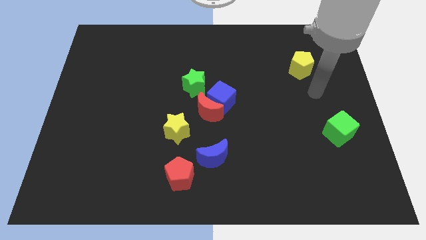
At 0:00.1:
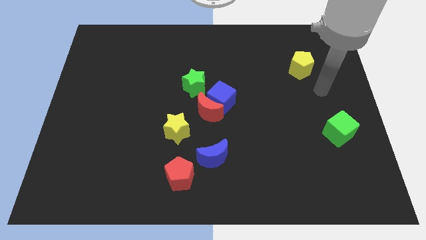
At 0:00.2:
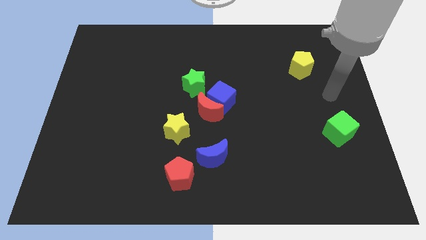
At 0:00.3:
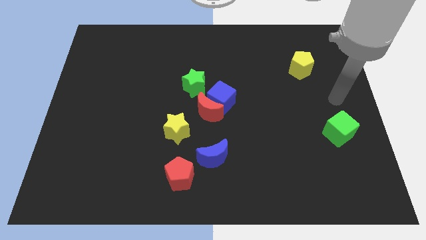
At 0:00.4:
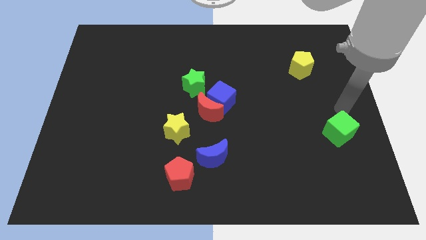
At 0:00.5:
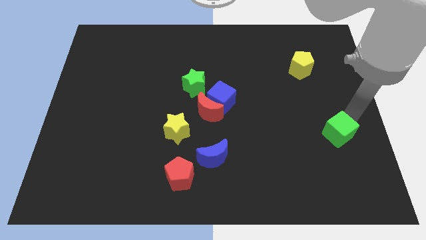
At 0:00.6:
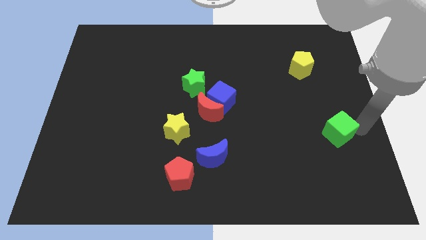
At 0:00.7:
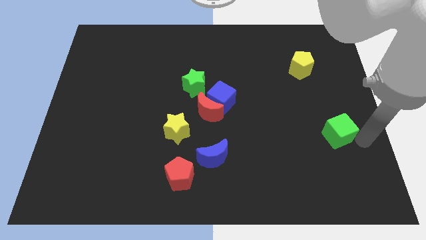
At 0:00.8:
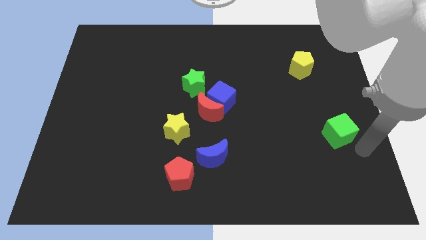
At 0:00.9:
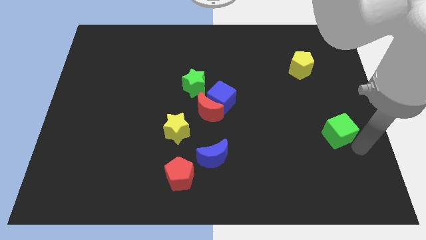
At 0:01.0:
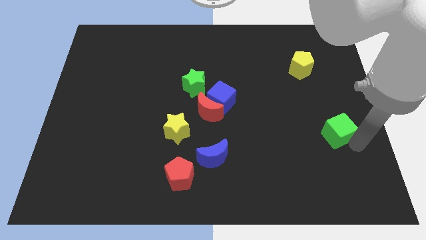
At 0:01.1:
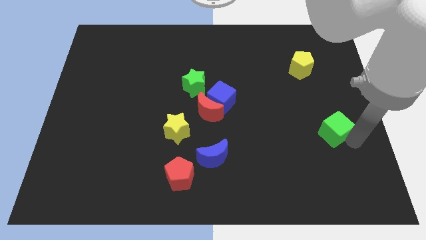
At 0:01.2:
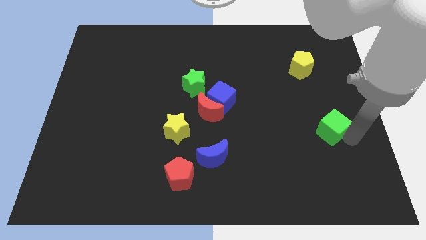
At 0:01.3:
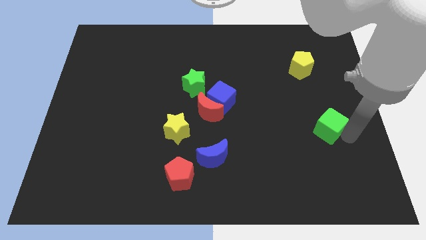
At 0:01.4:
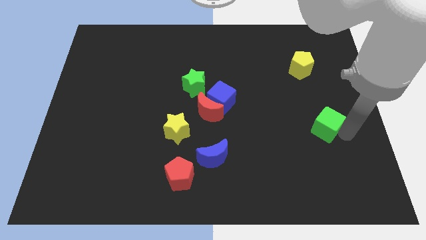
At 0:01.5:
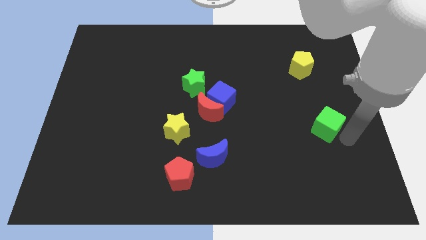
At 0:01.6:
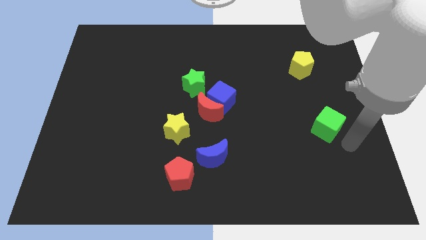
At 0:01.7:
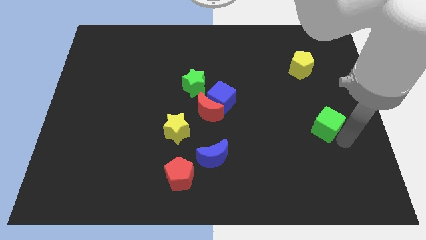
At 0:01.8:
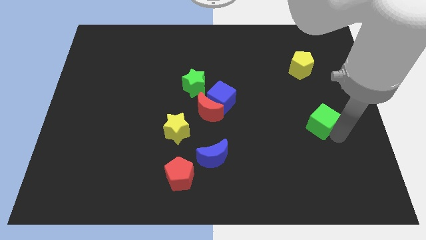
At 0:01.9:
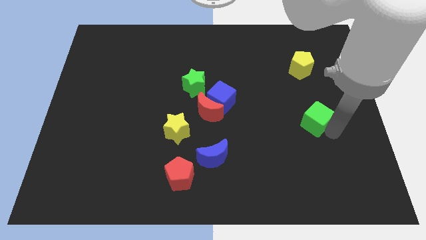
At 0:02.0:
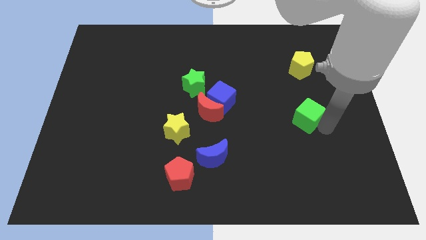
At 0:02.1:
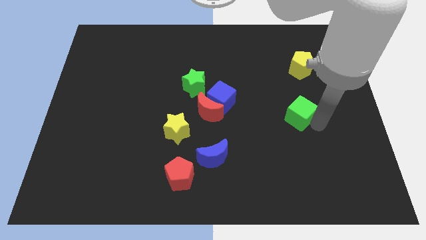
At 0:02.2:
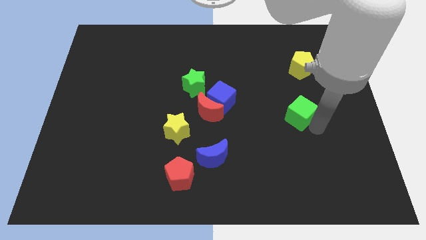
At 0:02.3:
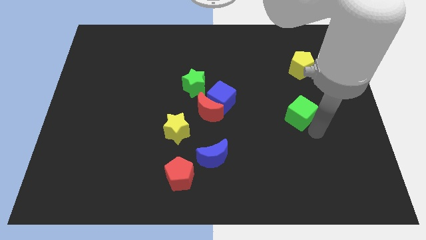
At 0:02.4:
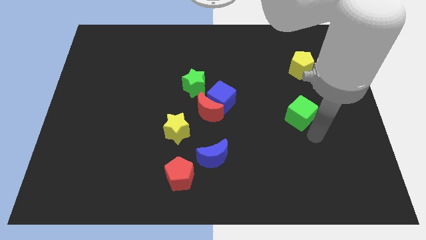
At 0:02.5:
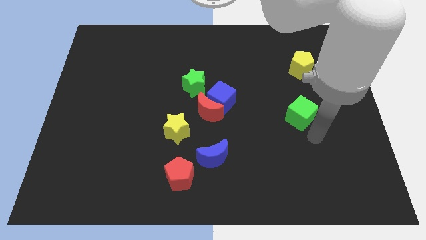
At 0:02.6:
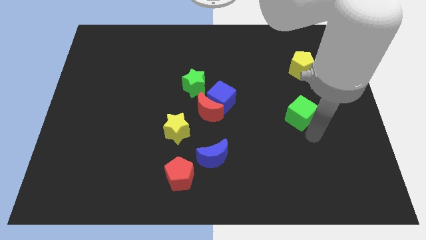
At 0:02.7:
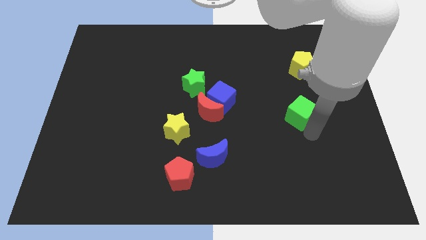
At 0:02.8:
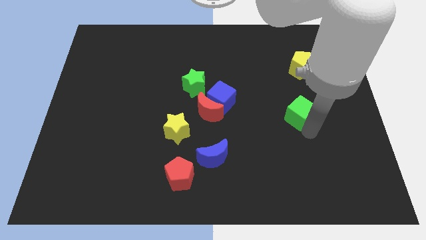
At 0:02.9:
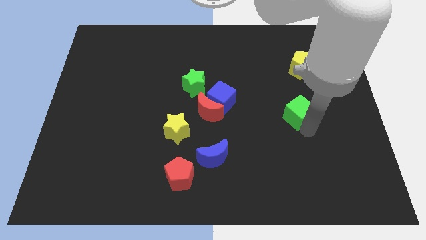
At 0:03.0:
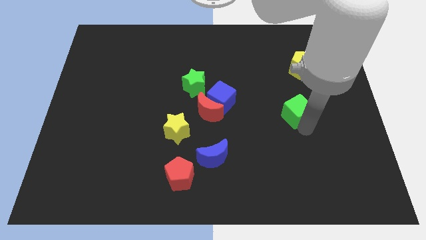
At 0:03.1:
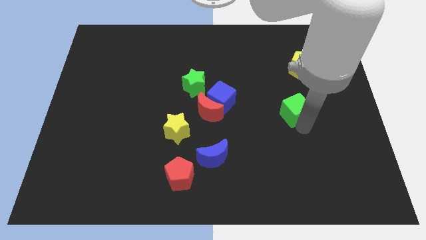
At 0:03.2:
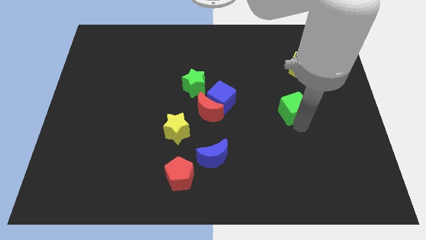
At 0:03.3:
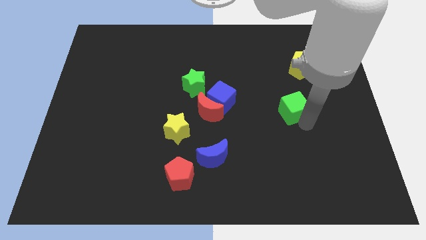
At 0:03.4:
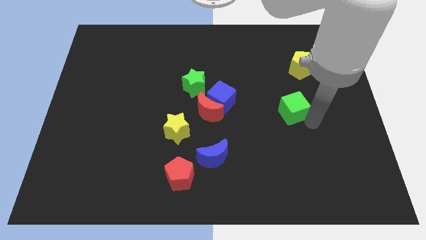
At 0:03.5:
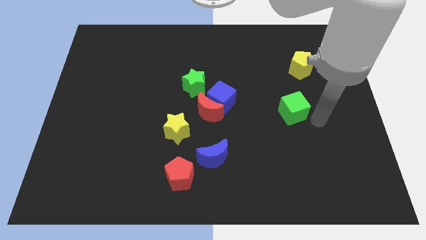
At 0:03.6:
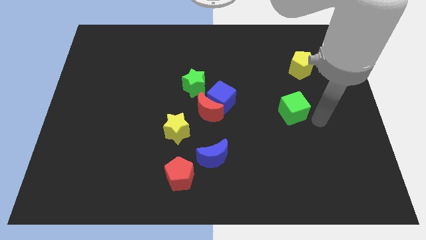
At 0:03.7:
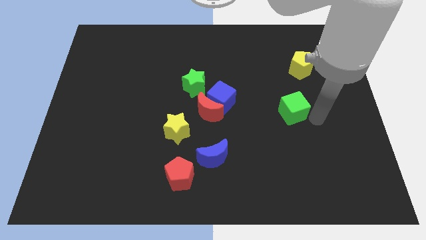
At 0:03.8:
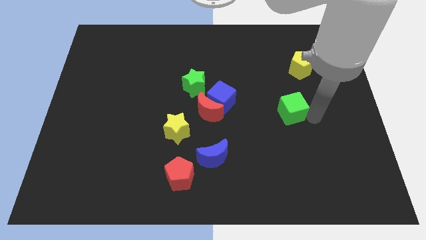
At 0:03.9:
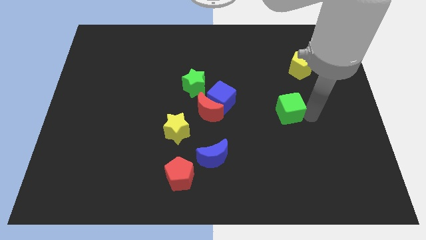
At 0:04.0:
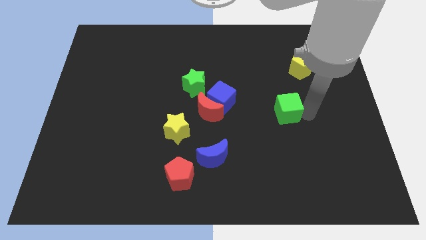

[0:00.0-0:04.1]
put the green cube to the right of the blue cube

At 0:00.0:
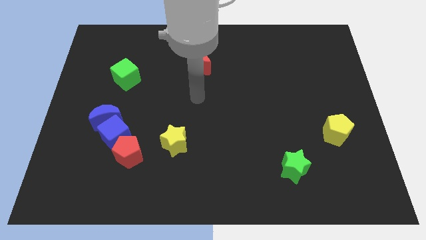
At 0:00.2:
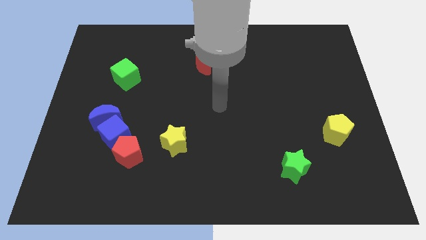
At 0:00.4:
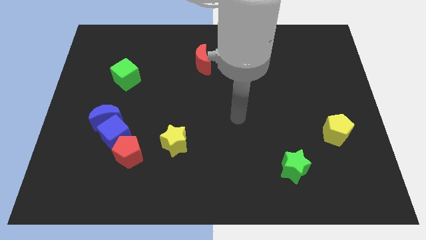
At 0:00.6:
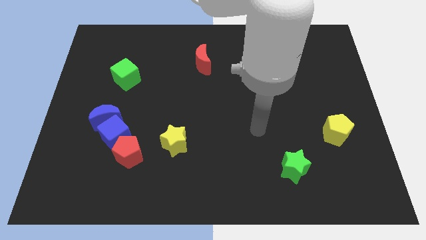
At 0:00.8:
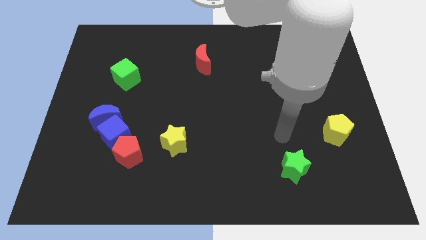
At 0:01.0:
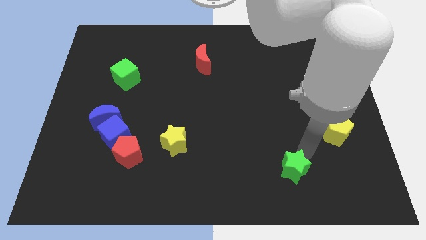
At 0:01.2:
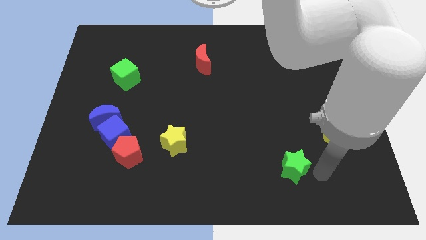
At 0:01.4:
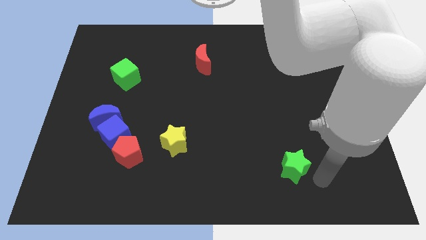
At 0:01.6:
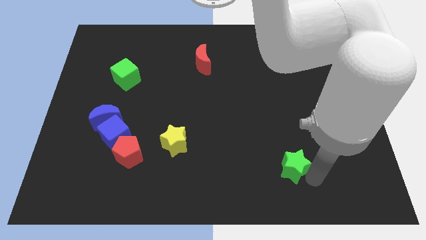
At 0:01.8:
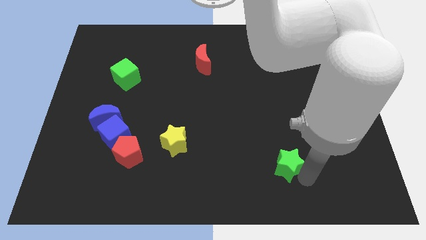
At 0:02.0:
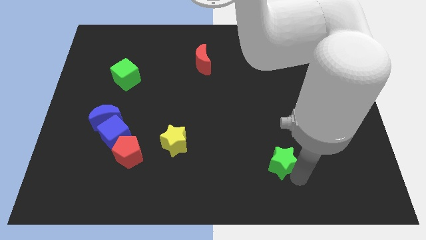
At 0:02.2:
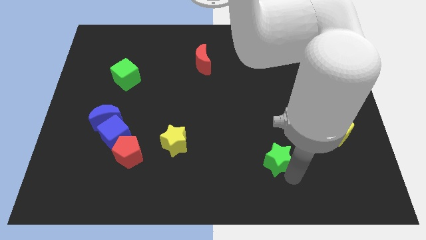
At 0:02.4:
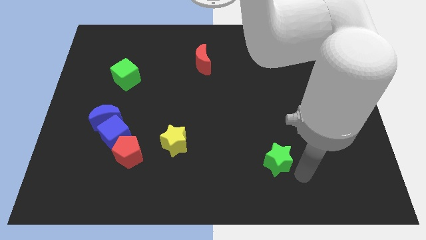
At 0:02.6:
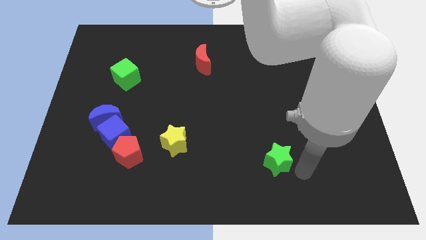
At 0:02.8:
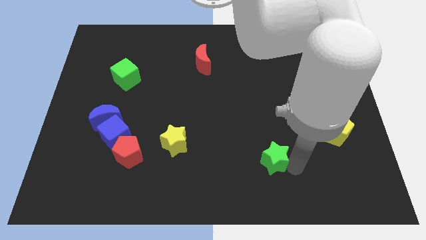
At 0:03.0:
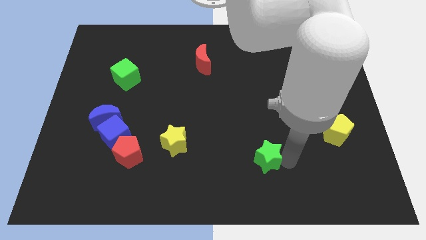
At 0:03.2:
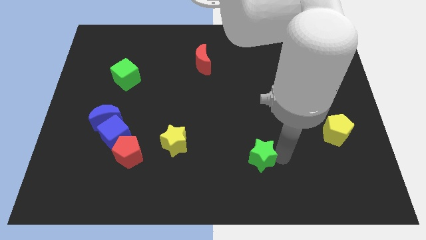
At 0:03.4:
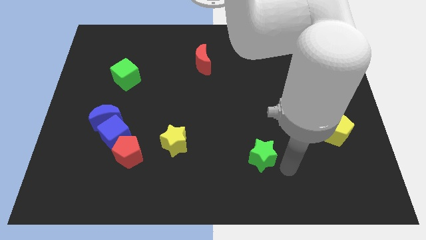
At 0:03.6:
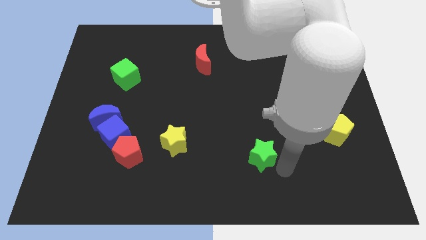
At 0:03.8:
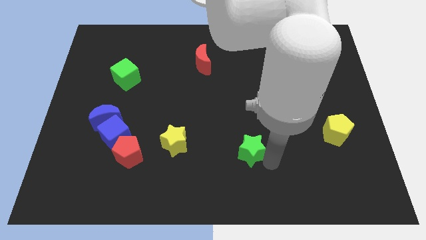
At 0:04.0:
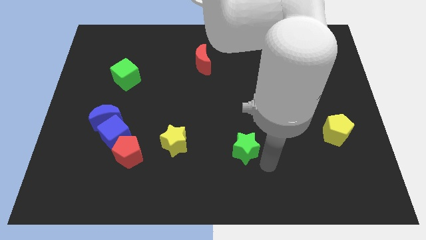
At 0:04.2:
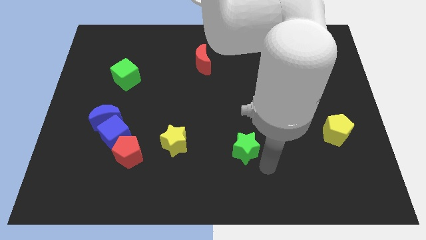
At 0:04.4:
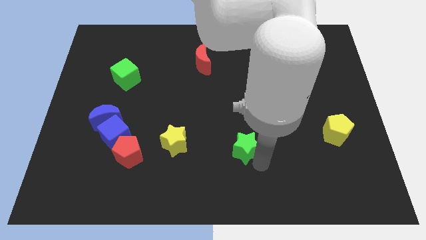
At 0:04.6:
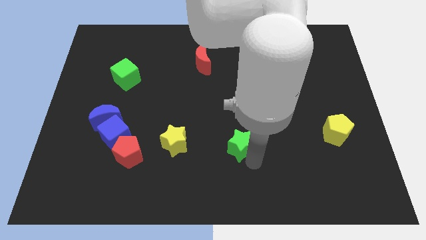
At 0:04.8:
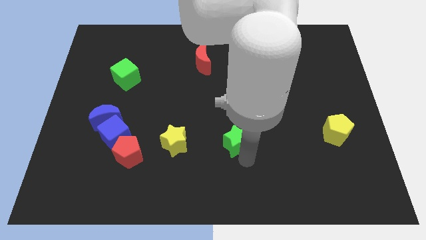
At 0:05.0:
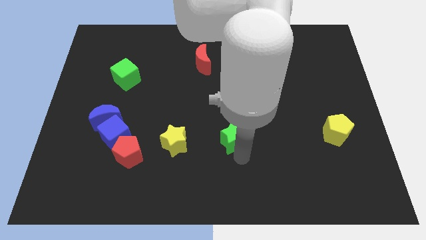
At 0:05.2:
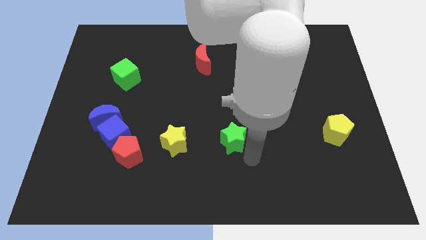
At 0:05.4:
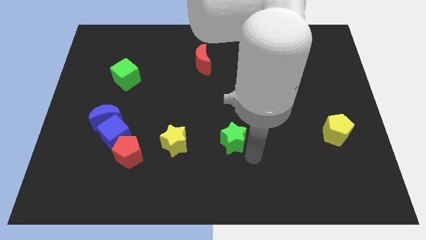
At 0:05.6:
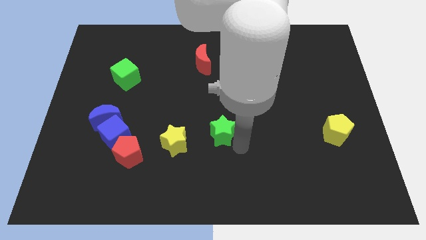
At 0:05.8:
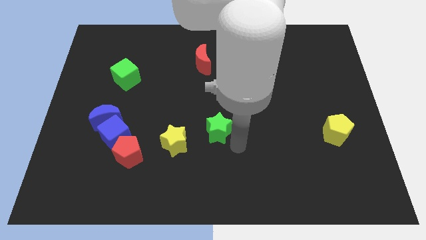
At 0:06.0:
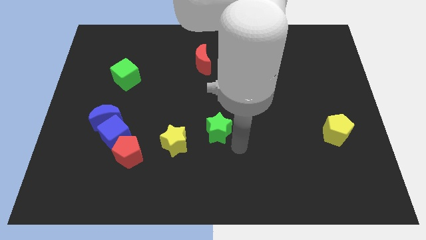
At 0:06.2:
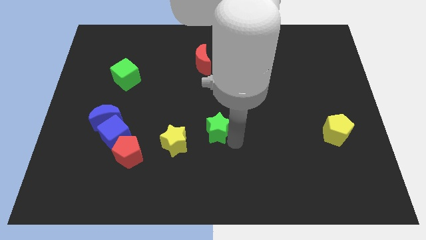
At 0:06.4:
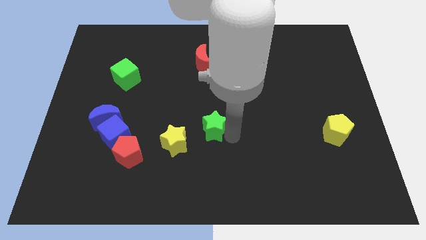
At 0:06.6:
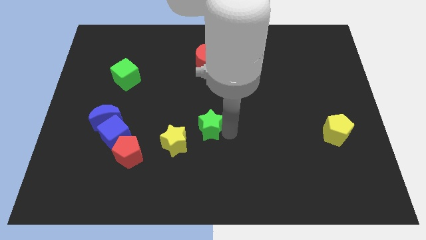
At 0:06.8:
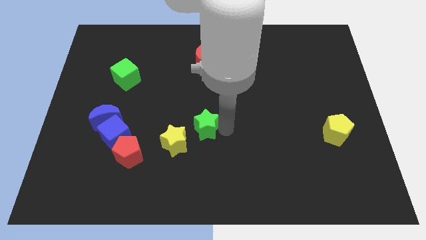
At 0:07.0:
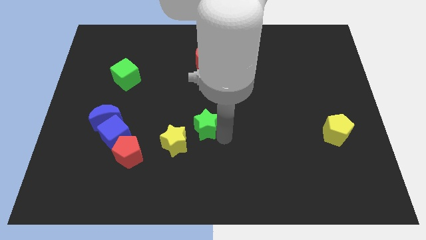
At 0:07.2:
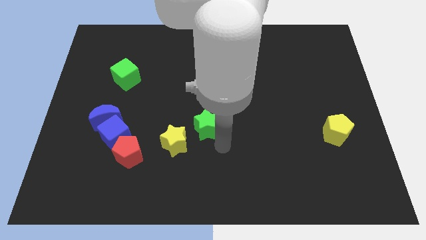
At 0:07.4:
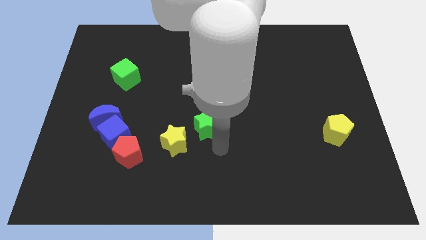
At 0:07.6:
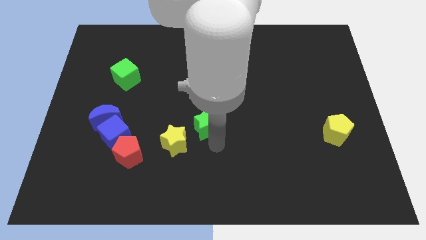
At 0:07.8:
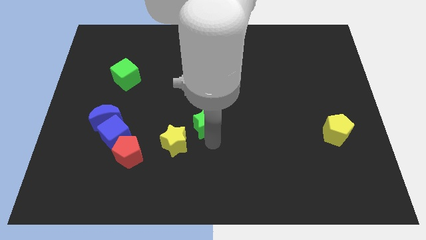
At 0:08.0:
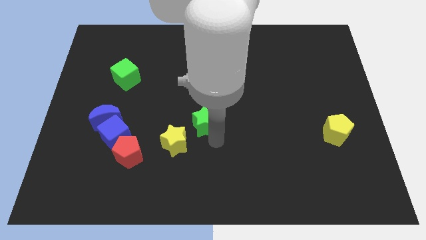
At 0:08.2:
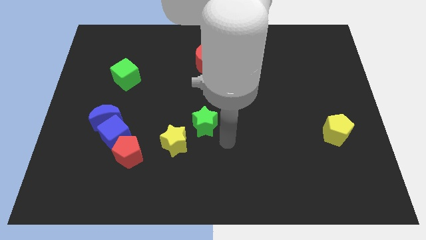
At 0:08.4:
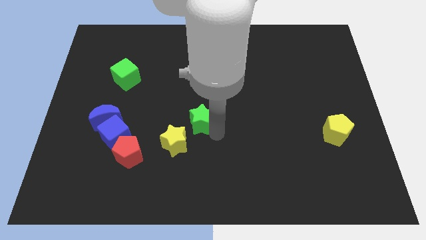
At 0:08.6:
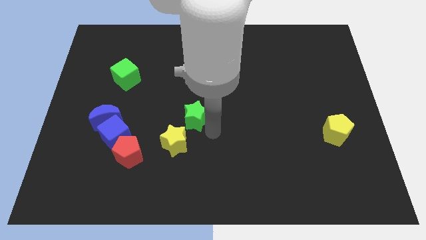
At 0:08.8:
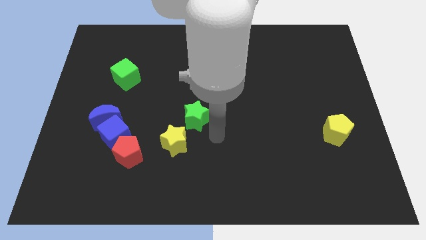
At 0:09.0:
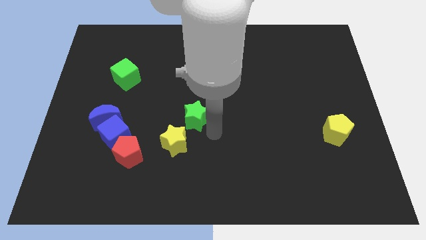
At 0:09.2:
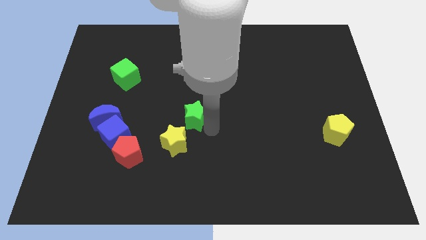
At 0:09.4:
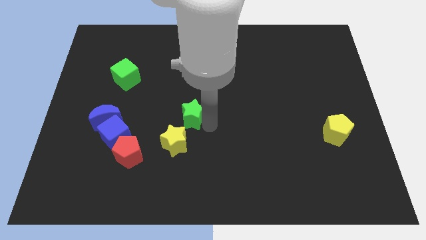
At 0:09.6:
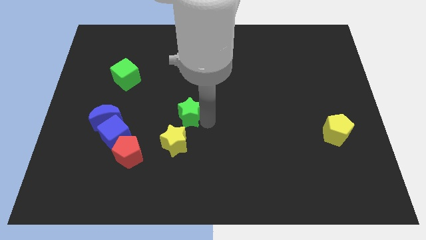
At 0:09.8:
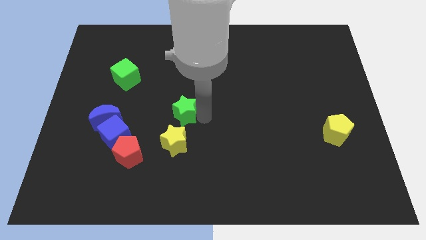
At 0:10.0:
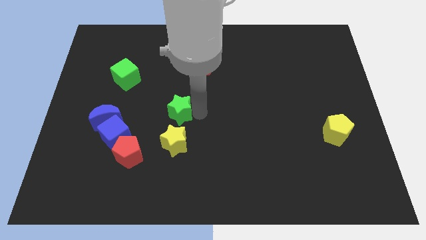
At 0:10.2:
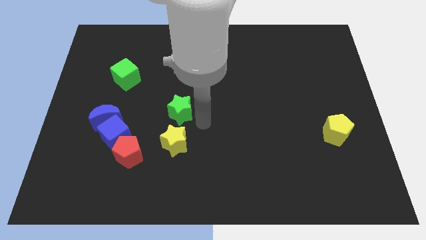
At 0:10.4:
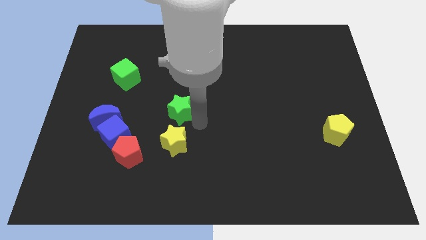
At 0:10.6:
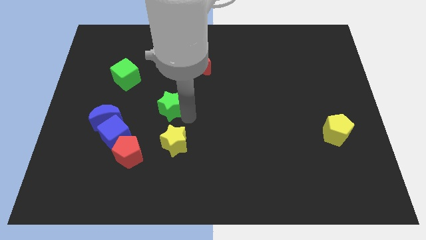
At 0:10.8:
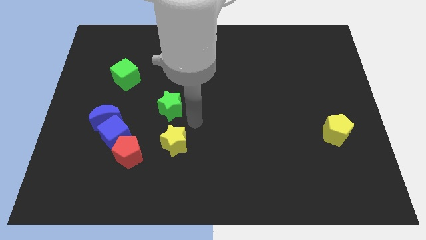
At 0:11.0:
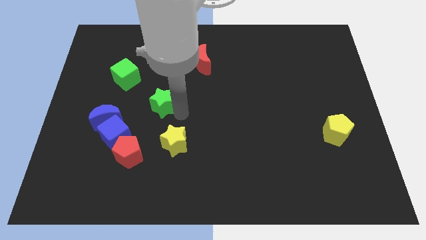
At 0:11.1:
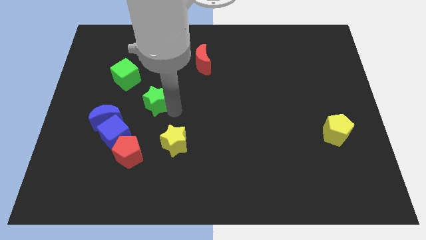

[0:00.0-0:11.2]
slide the green star diagonally down and to the right of the green cube
